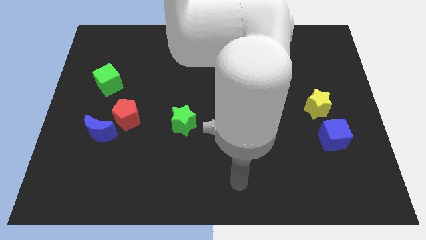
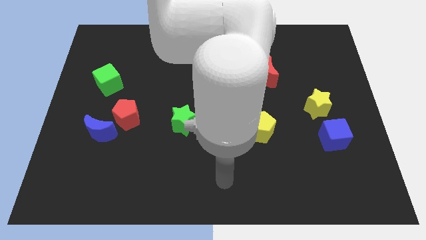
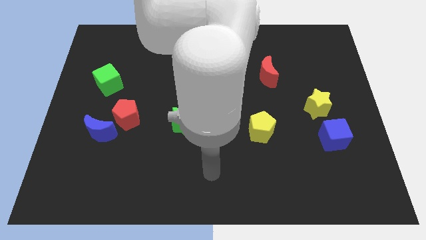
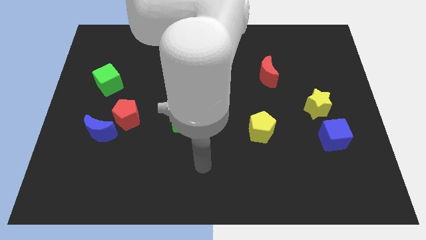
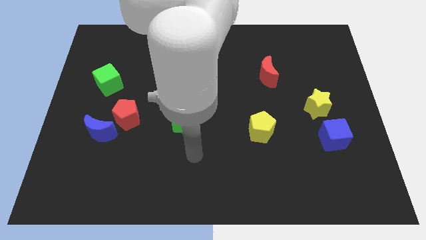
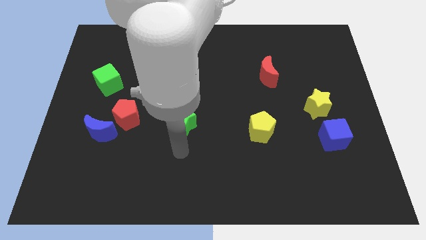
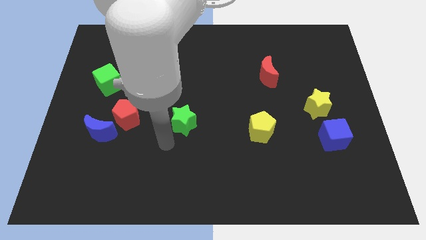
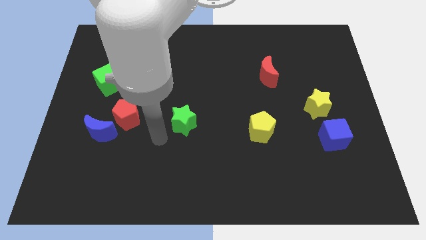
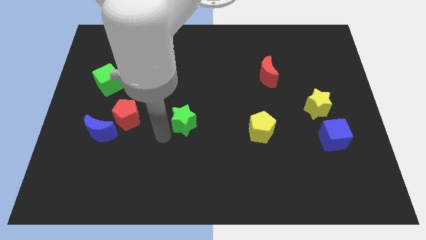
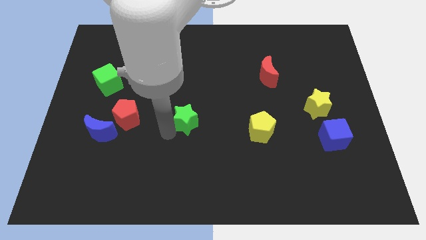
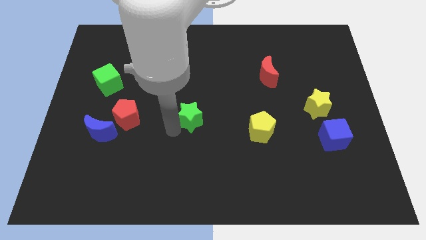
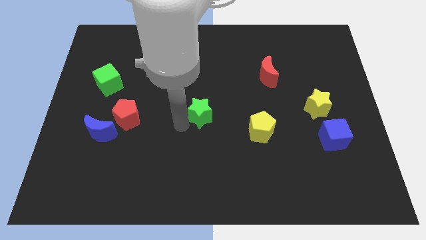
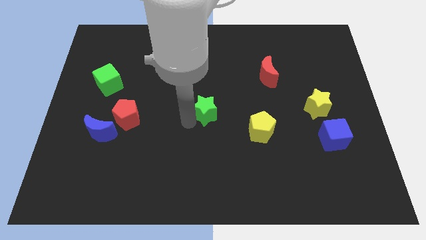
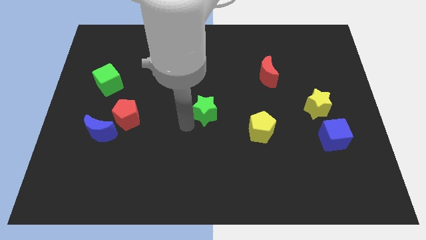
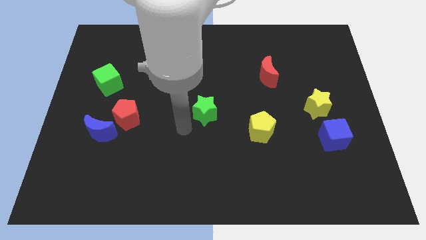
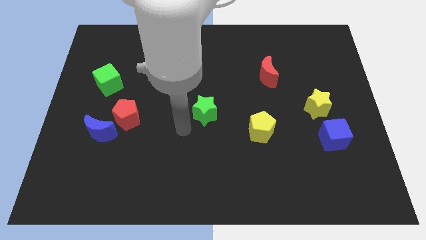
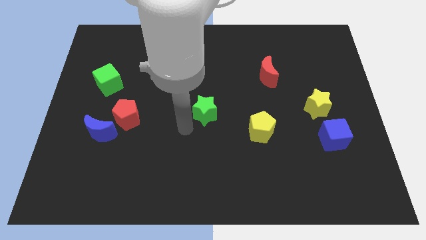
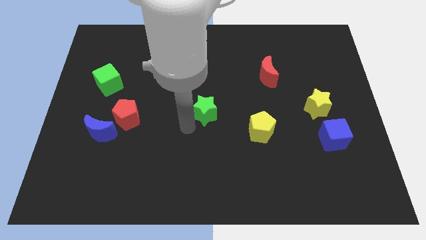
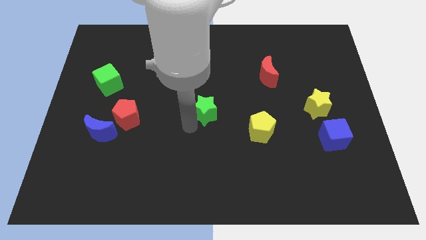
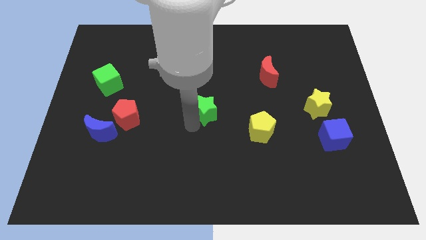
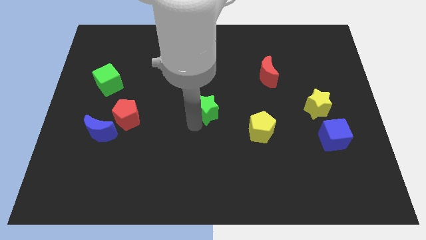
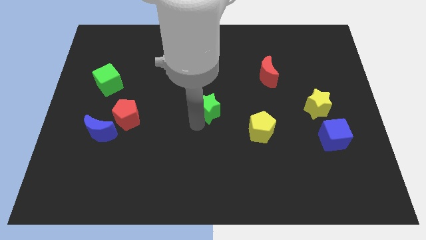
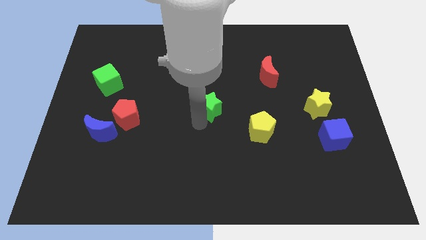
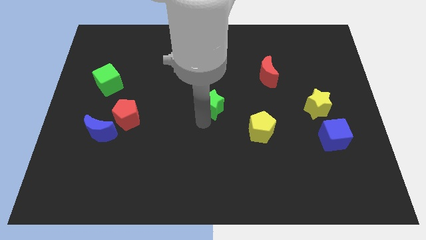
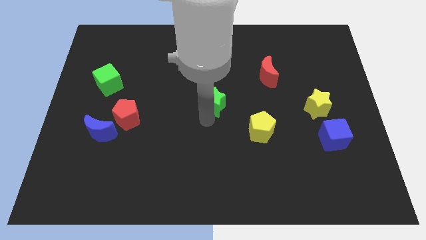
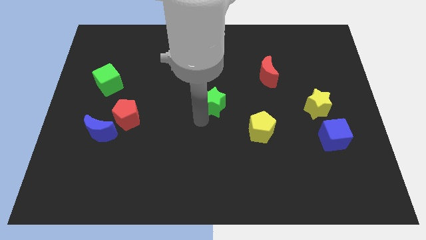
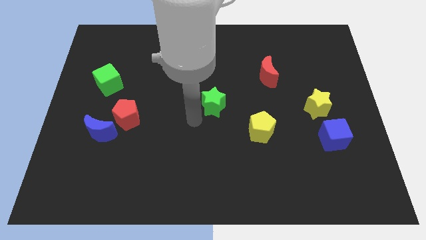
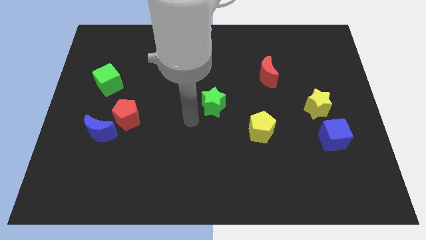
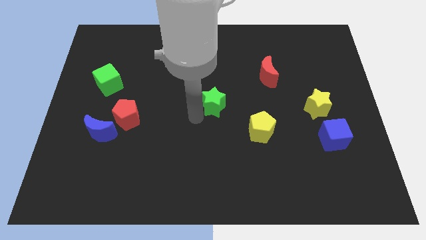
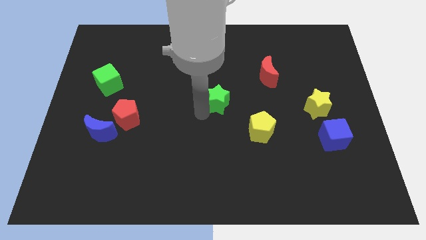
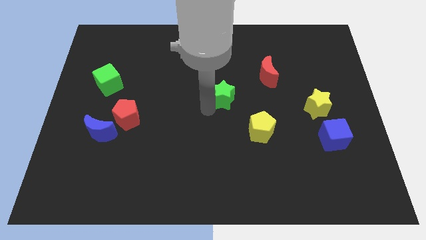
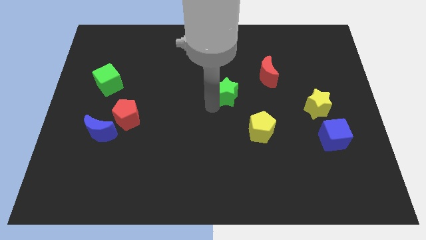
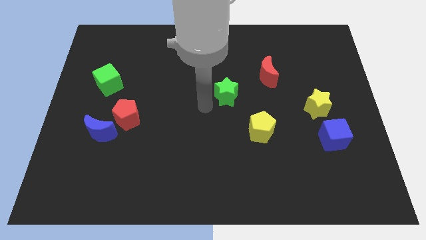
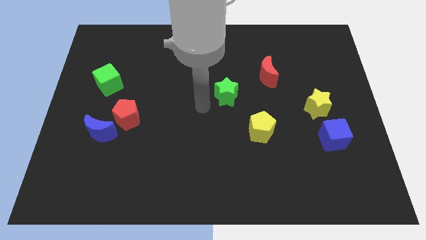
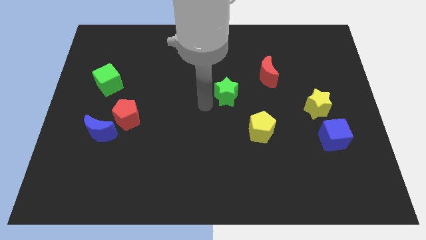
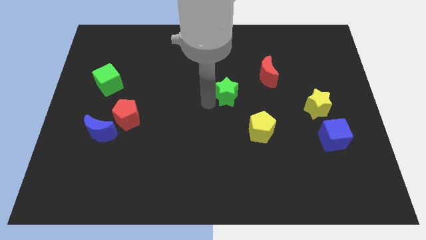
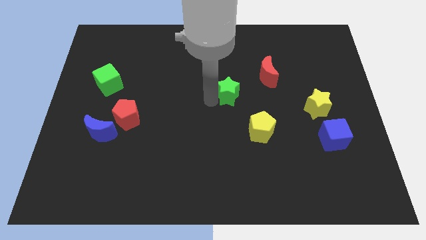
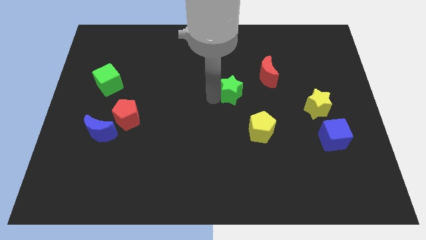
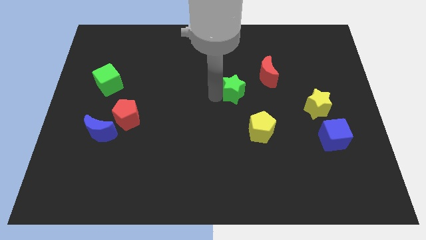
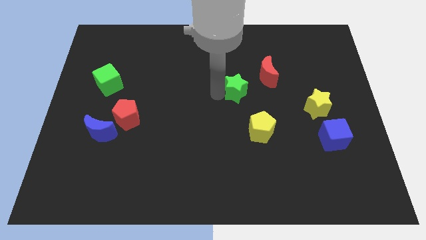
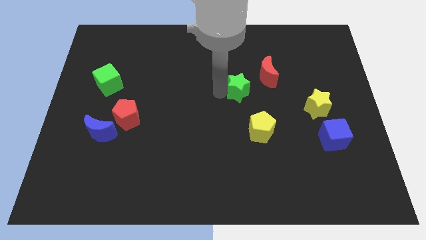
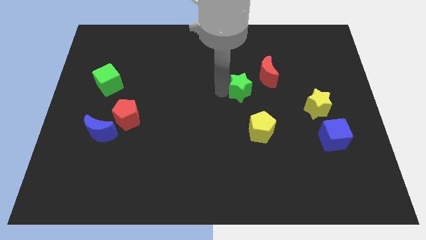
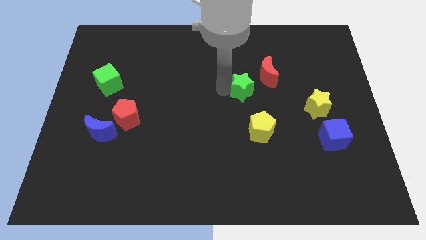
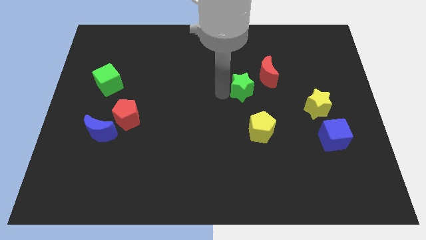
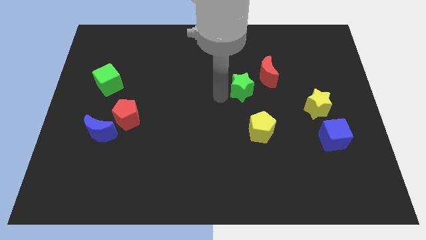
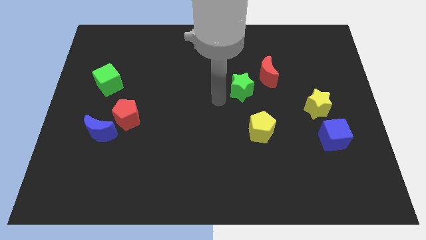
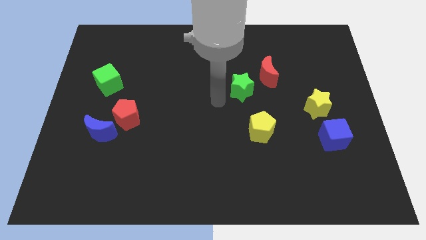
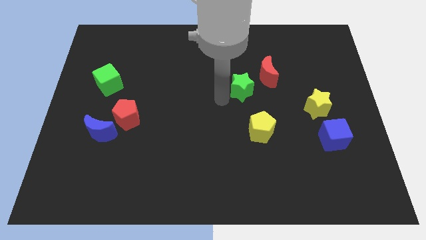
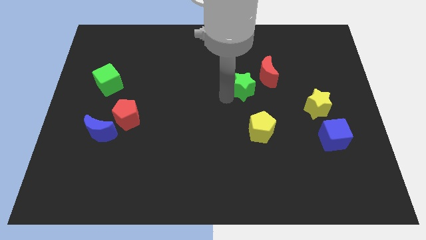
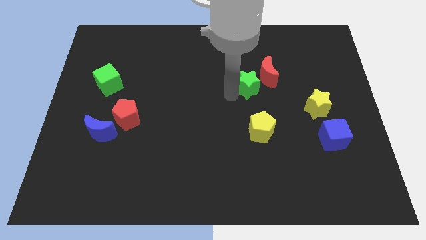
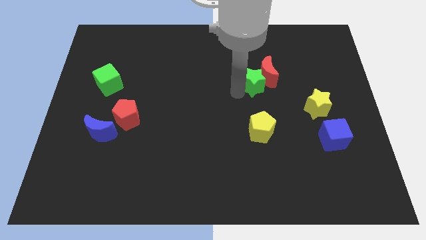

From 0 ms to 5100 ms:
push the green star close to the red moon

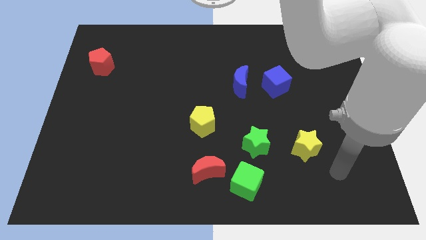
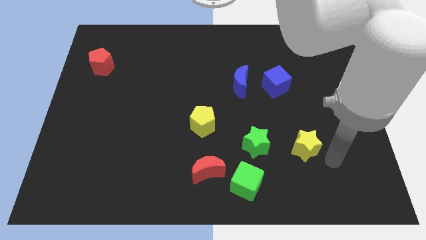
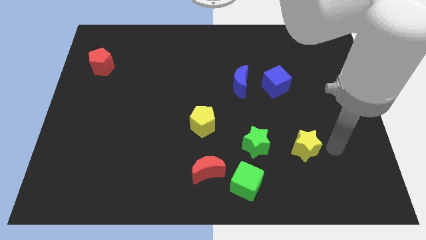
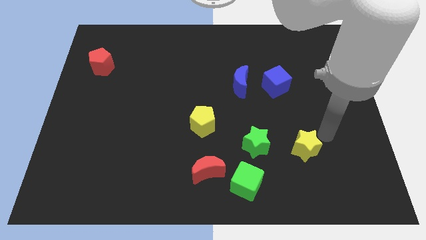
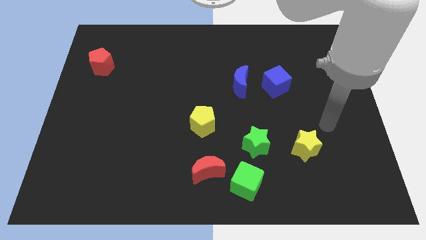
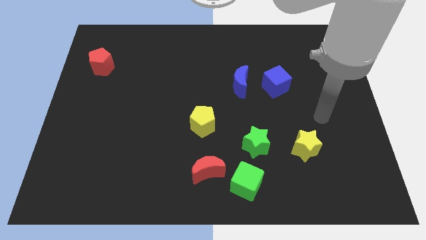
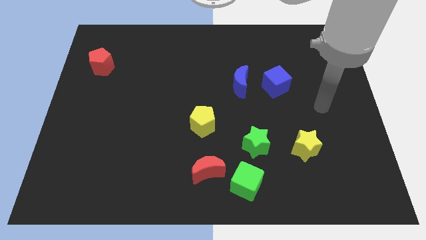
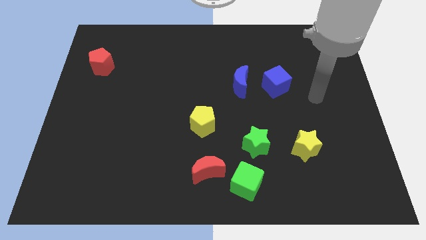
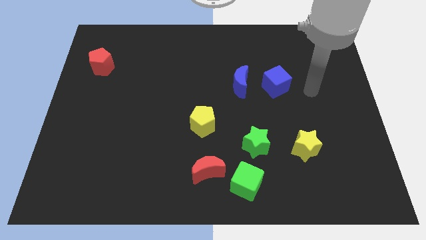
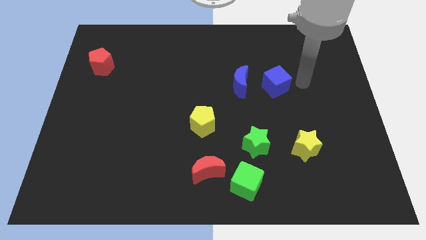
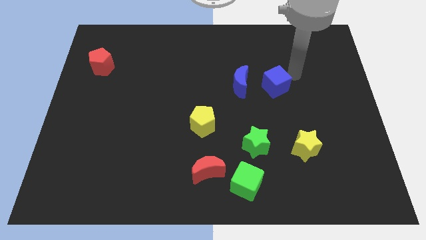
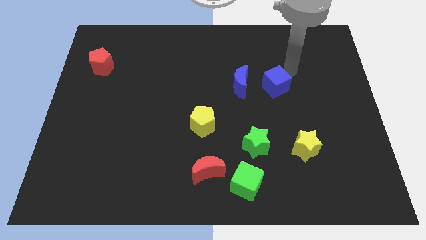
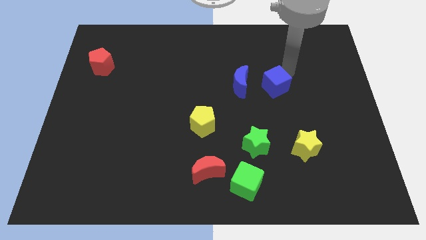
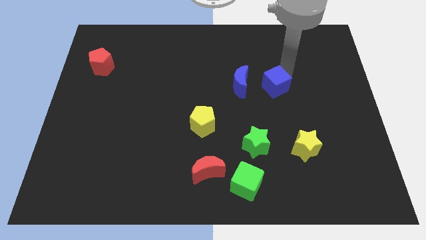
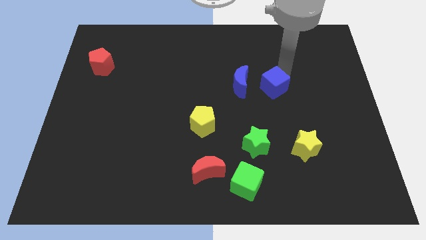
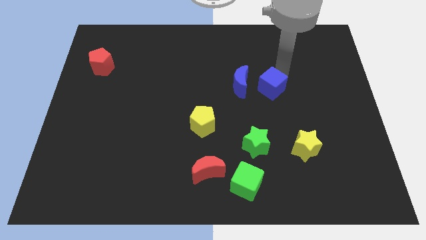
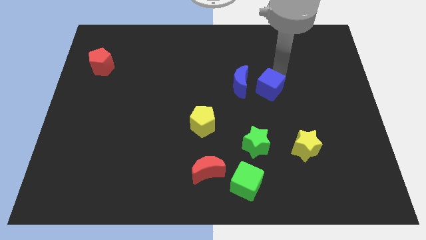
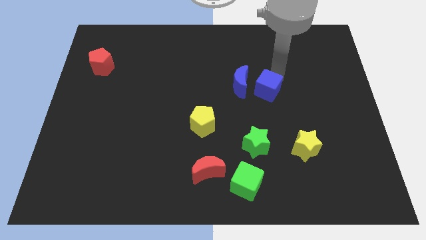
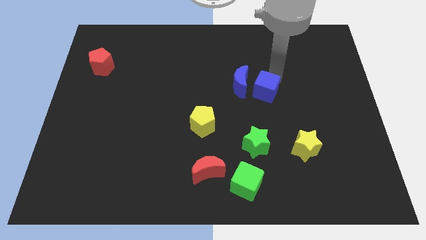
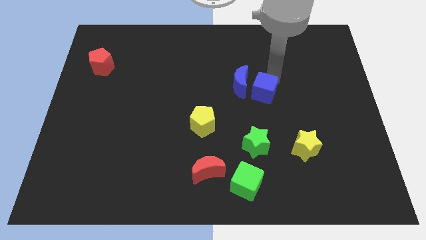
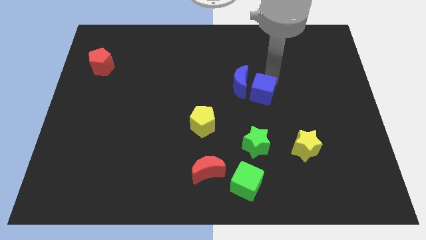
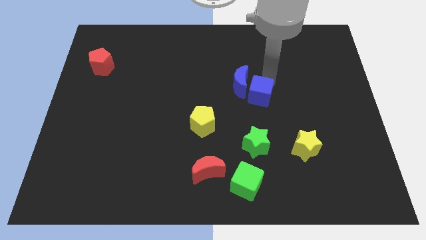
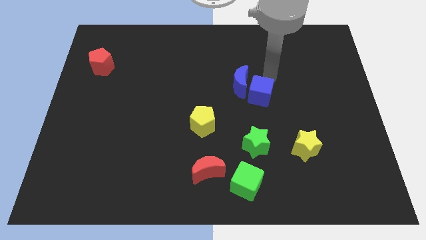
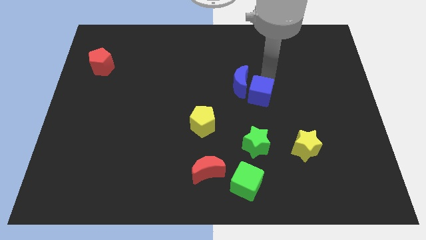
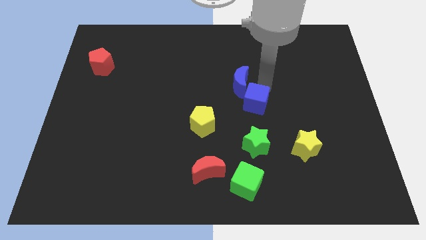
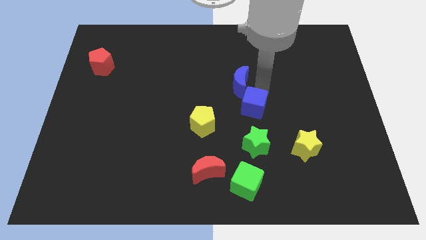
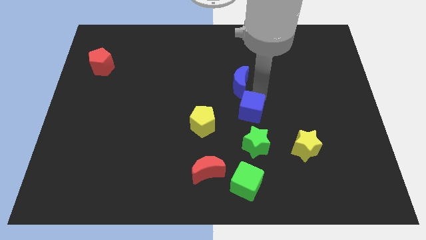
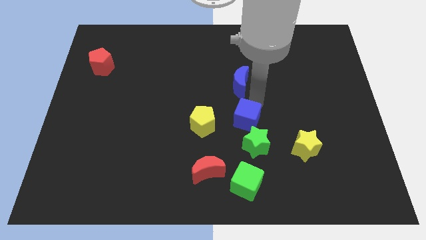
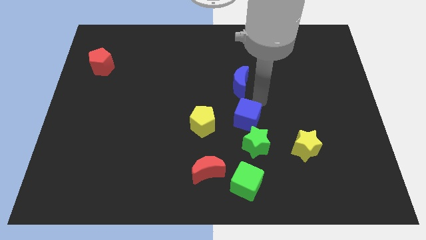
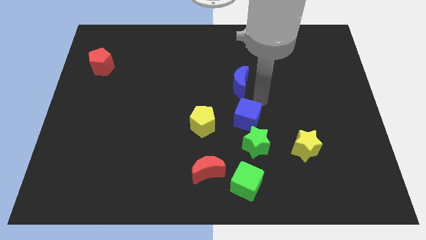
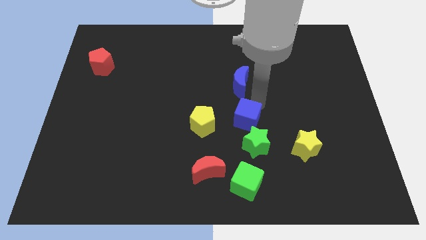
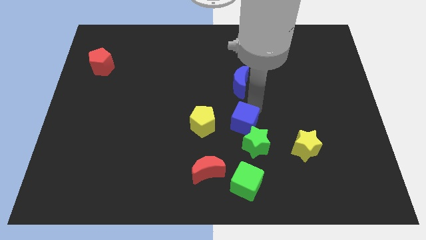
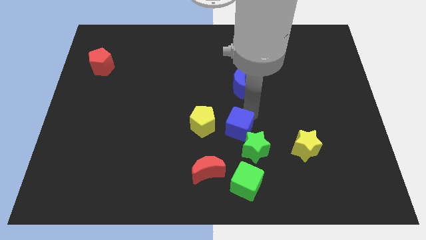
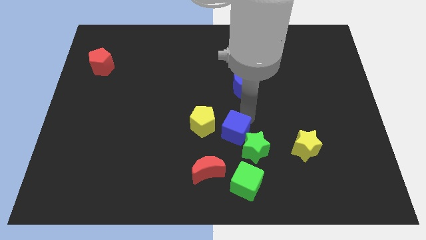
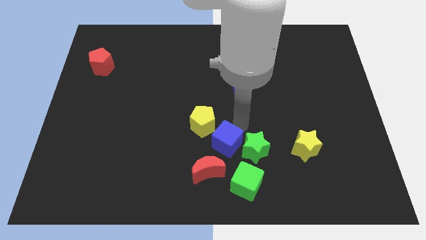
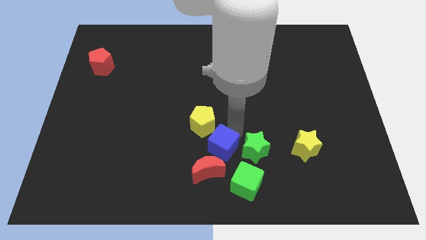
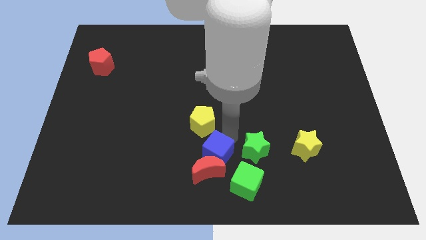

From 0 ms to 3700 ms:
push the blue cube to the red moon
